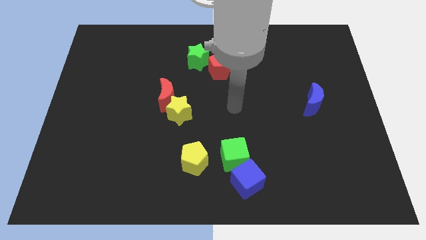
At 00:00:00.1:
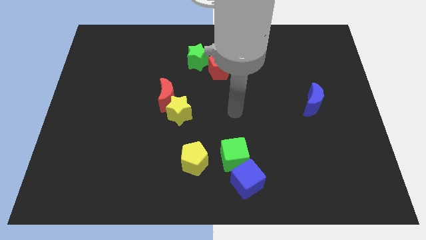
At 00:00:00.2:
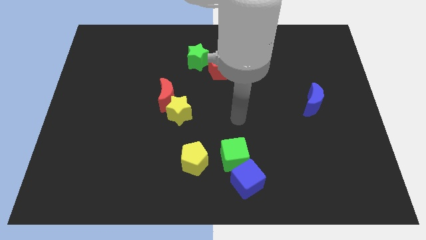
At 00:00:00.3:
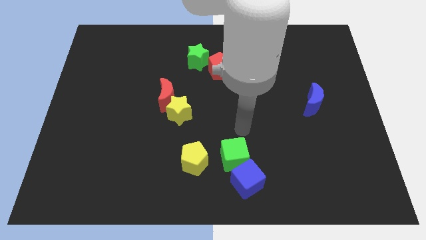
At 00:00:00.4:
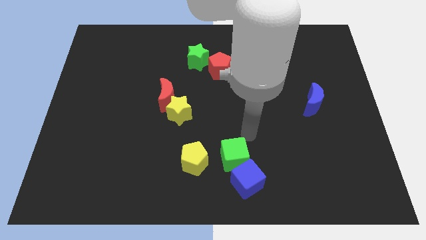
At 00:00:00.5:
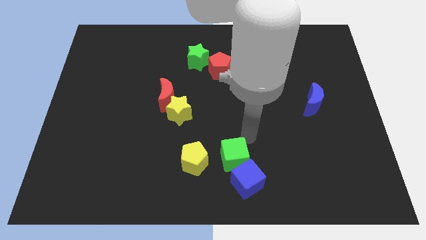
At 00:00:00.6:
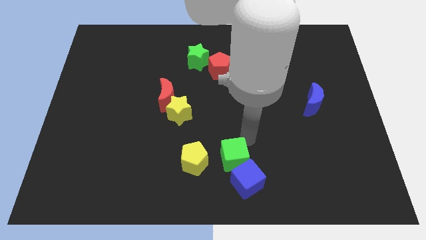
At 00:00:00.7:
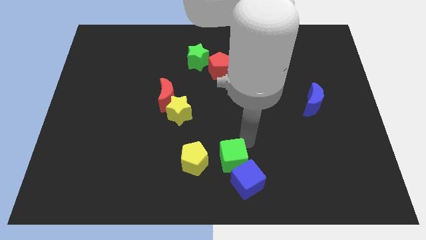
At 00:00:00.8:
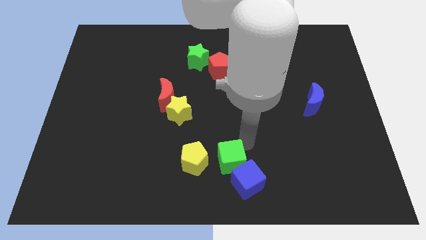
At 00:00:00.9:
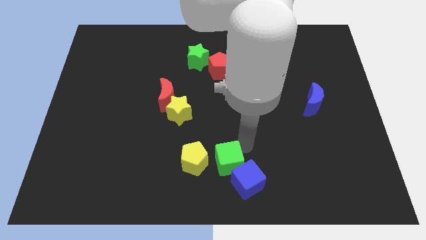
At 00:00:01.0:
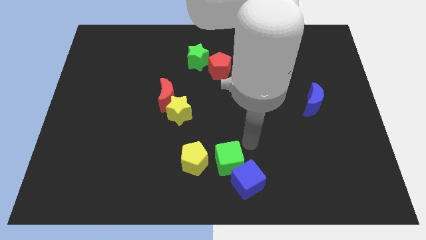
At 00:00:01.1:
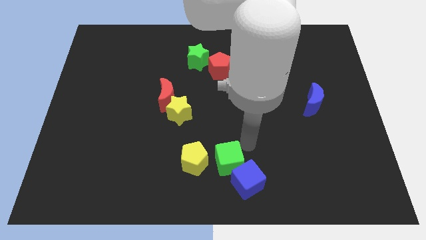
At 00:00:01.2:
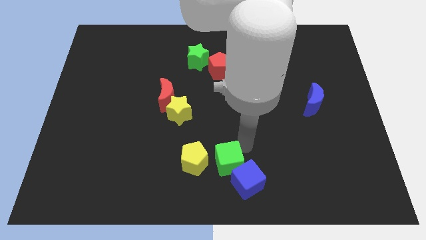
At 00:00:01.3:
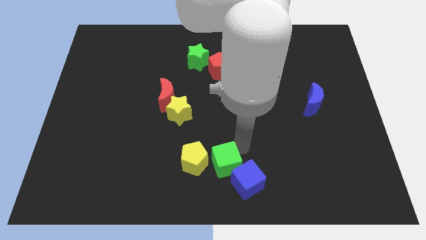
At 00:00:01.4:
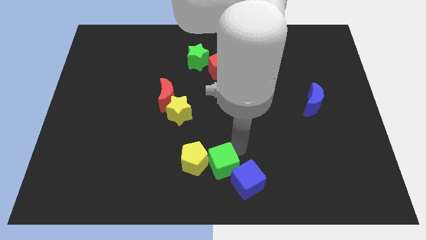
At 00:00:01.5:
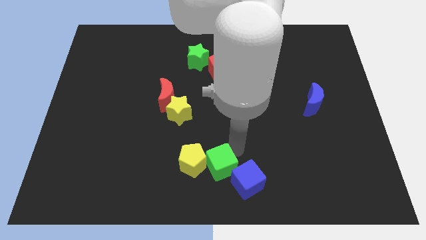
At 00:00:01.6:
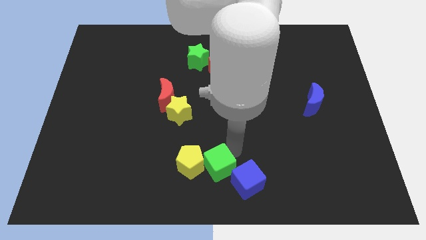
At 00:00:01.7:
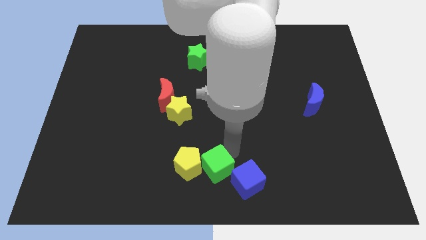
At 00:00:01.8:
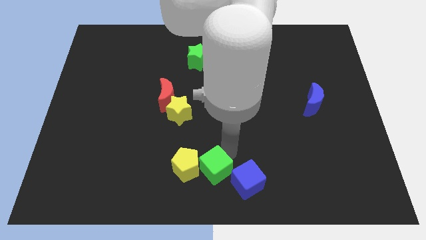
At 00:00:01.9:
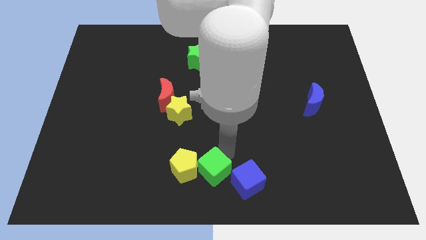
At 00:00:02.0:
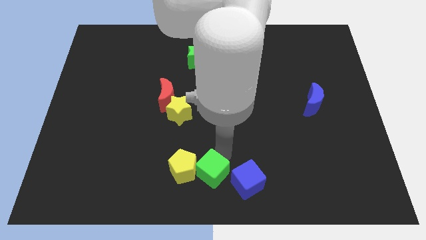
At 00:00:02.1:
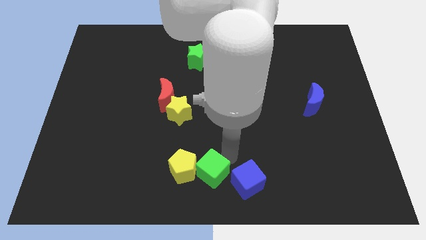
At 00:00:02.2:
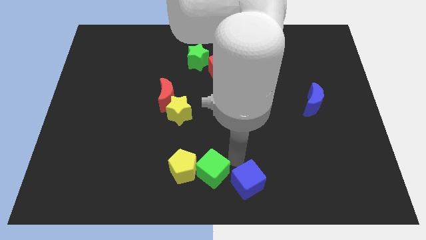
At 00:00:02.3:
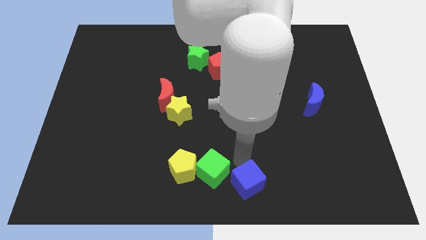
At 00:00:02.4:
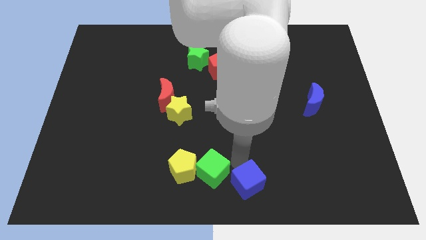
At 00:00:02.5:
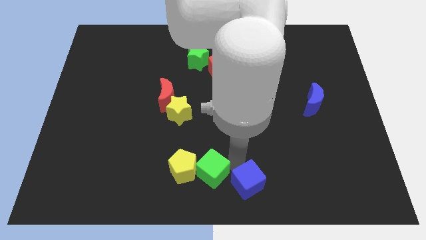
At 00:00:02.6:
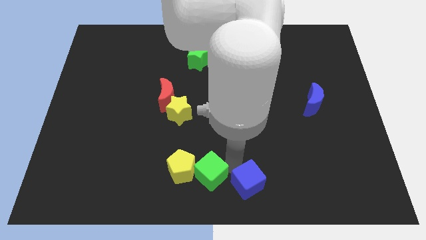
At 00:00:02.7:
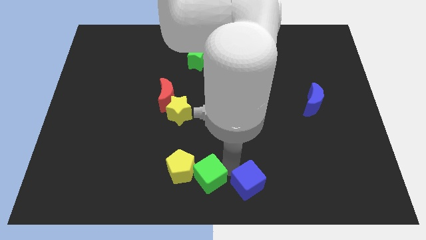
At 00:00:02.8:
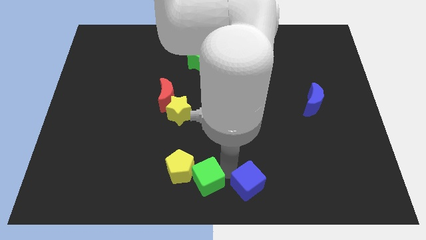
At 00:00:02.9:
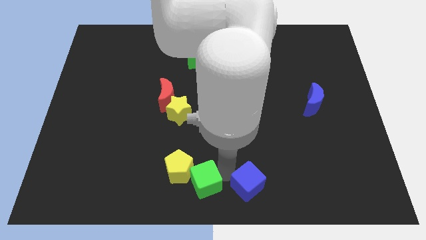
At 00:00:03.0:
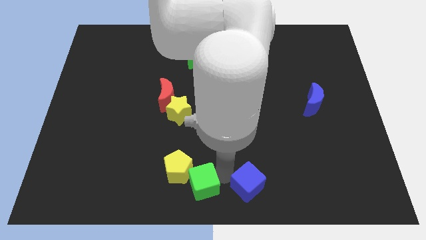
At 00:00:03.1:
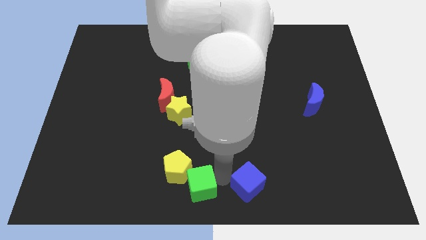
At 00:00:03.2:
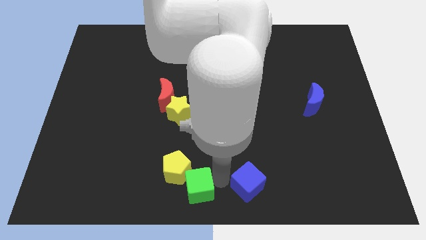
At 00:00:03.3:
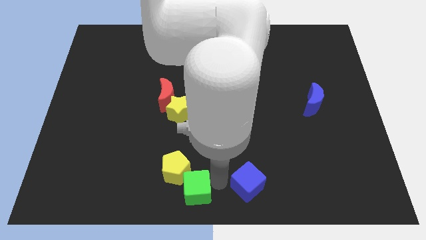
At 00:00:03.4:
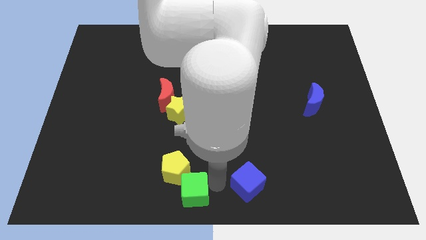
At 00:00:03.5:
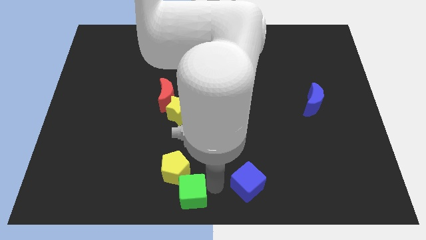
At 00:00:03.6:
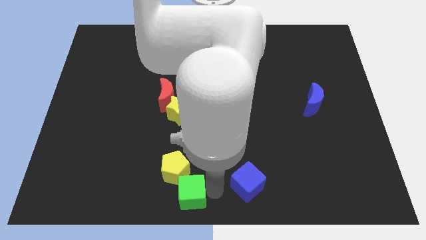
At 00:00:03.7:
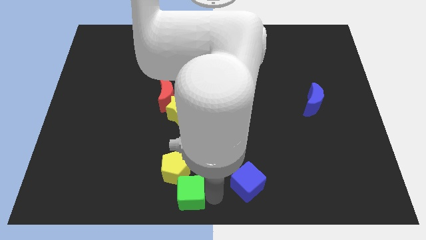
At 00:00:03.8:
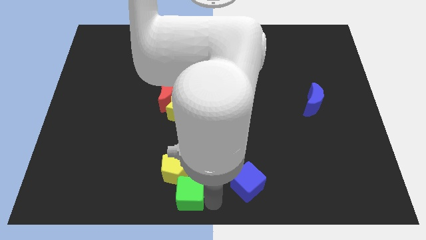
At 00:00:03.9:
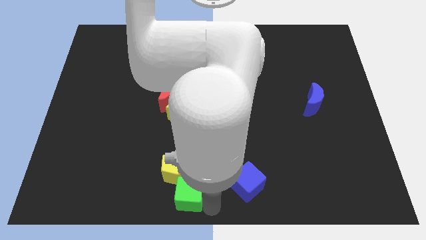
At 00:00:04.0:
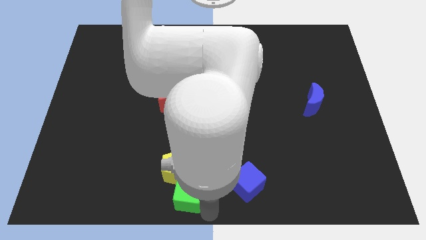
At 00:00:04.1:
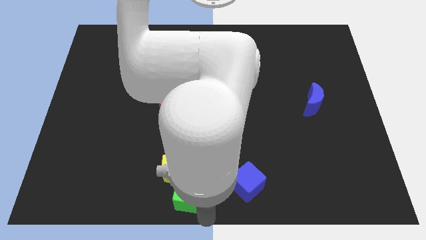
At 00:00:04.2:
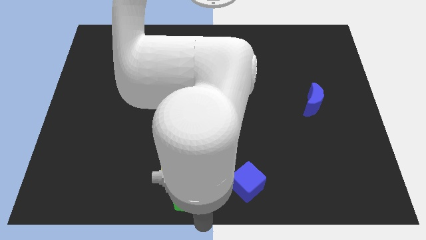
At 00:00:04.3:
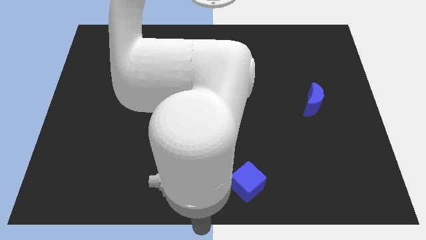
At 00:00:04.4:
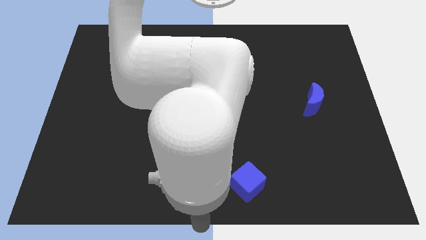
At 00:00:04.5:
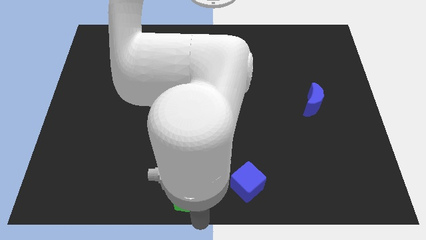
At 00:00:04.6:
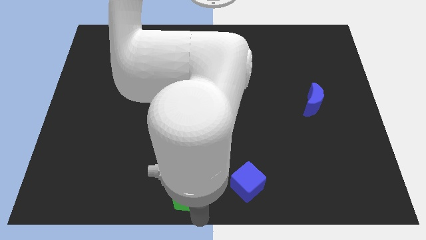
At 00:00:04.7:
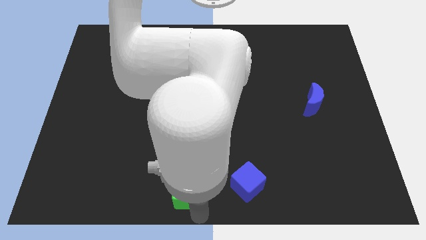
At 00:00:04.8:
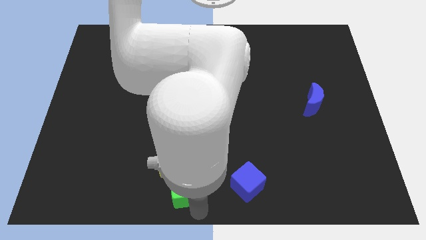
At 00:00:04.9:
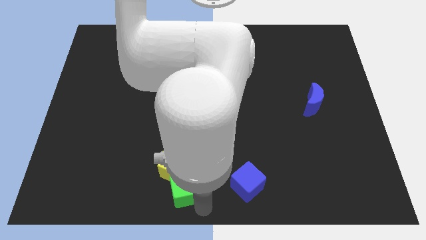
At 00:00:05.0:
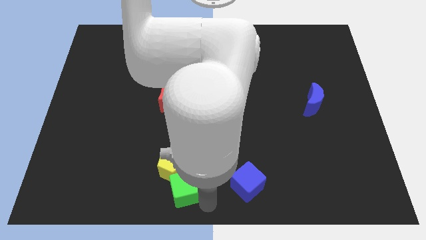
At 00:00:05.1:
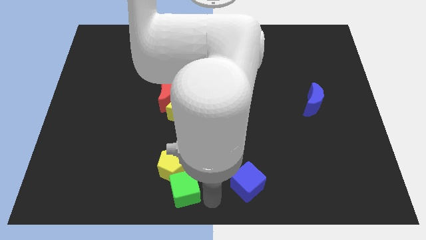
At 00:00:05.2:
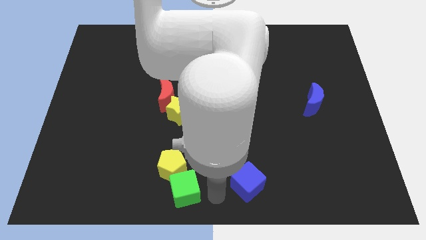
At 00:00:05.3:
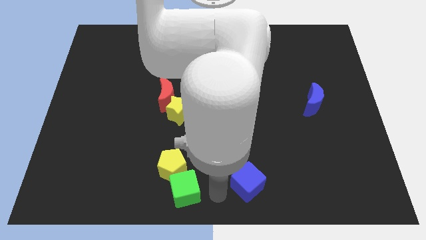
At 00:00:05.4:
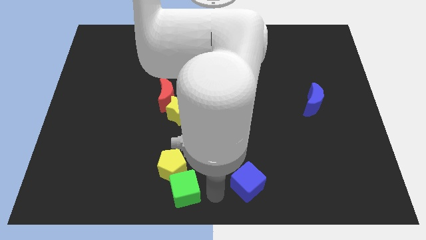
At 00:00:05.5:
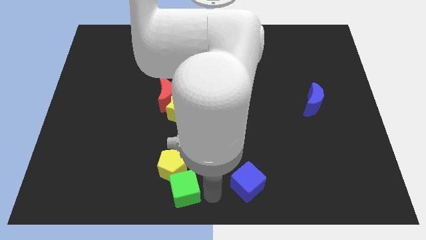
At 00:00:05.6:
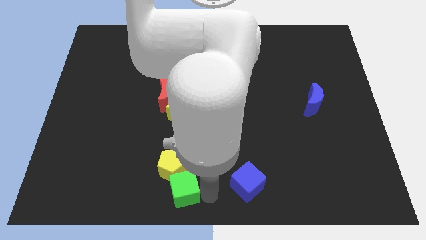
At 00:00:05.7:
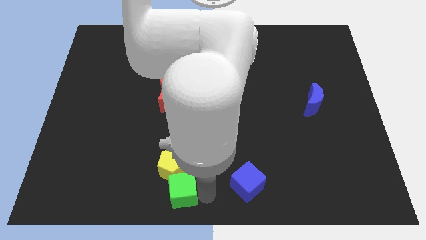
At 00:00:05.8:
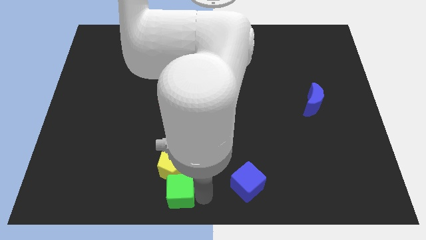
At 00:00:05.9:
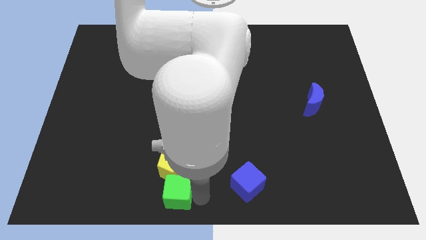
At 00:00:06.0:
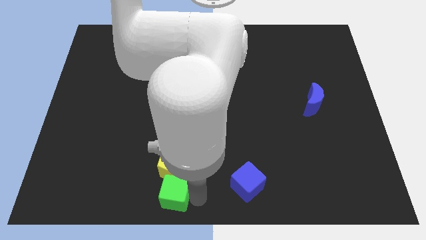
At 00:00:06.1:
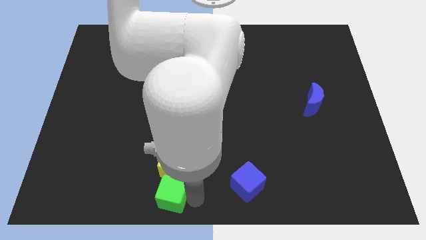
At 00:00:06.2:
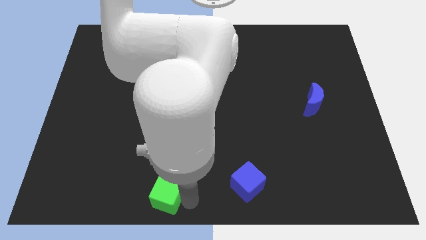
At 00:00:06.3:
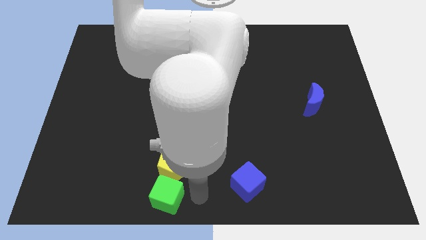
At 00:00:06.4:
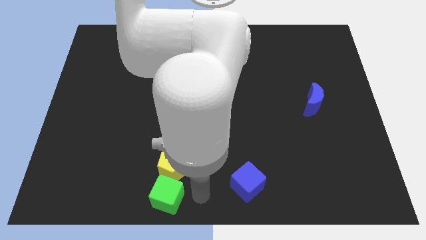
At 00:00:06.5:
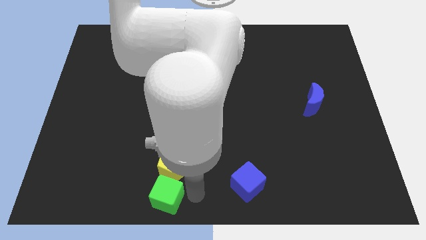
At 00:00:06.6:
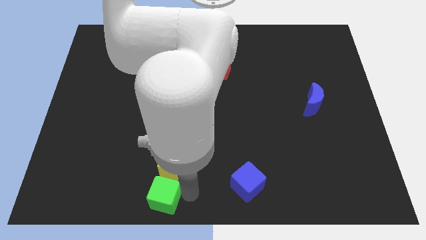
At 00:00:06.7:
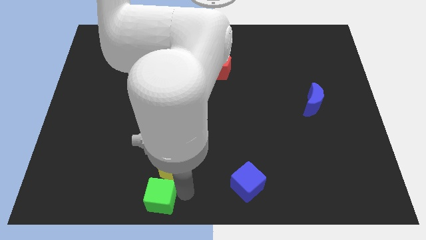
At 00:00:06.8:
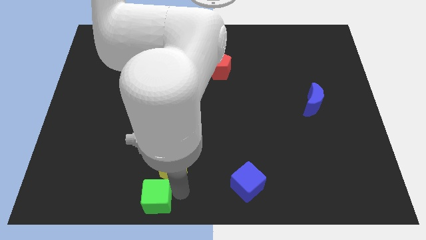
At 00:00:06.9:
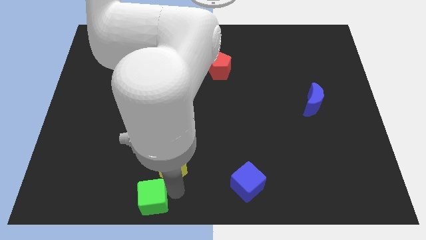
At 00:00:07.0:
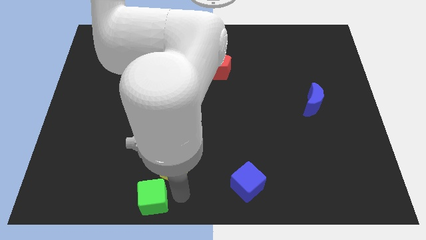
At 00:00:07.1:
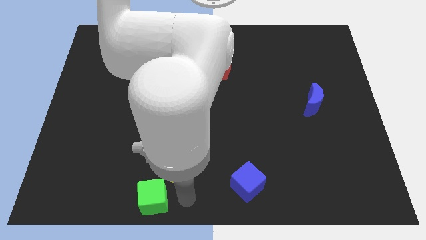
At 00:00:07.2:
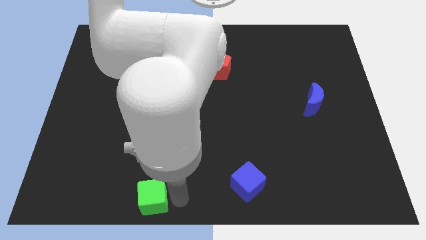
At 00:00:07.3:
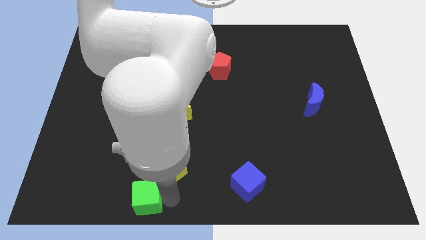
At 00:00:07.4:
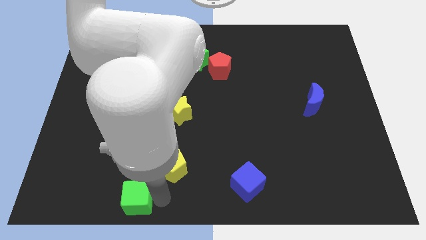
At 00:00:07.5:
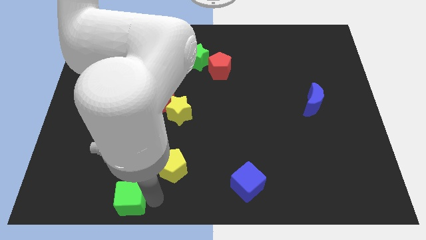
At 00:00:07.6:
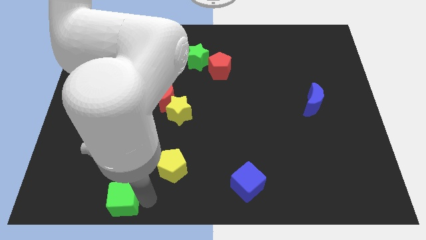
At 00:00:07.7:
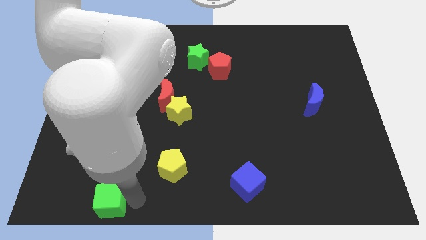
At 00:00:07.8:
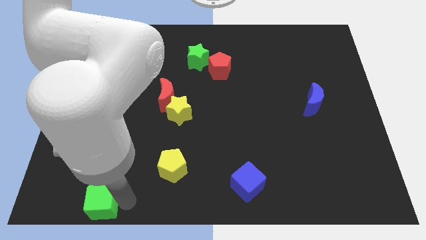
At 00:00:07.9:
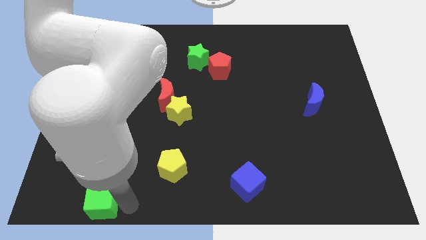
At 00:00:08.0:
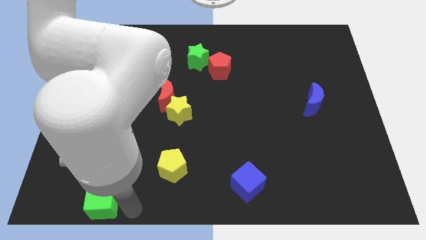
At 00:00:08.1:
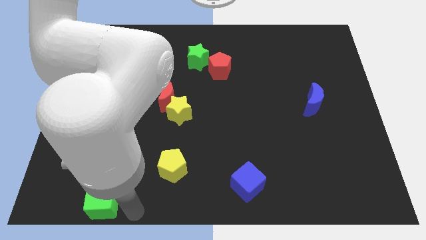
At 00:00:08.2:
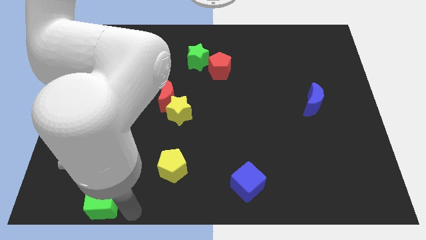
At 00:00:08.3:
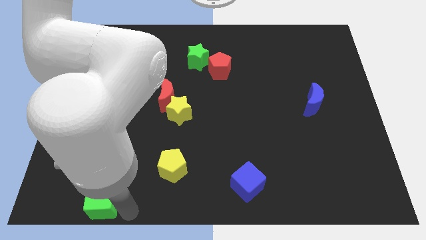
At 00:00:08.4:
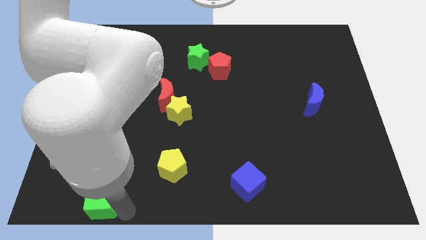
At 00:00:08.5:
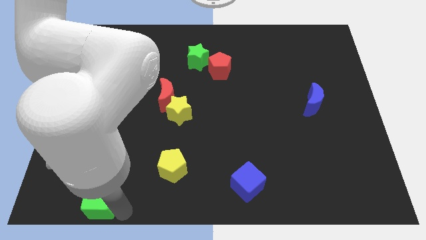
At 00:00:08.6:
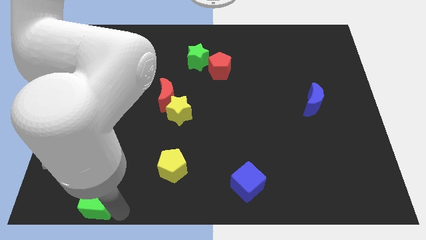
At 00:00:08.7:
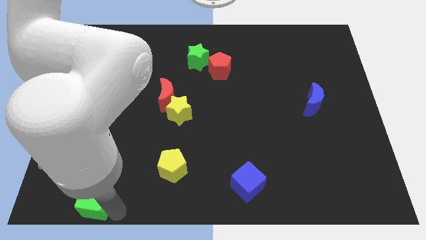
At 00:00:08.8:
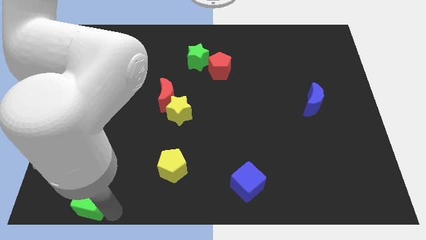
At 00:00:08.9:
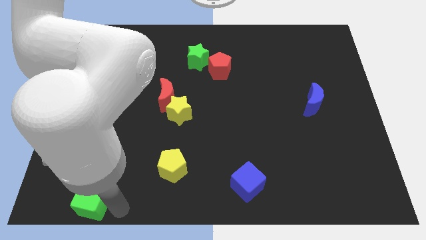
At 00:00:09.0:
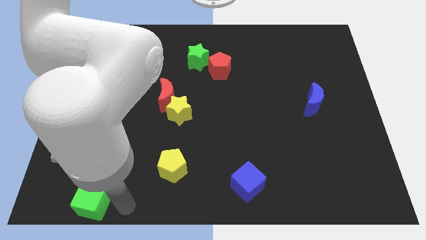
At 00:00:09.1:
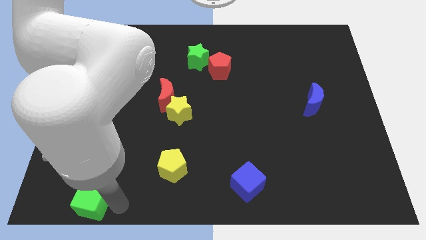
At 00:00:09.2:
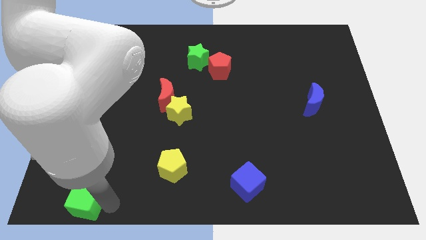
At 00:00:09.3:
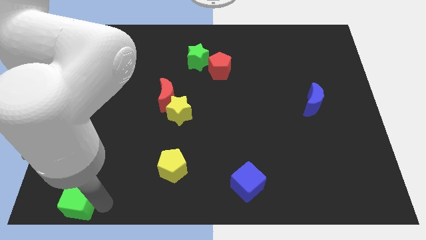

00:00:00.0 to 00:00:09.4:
push the green cube to the bottom left corner
